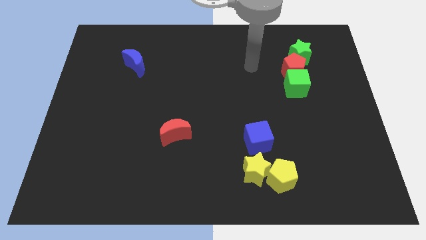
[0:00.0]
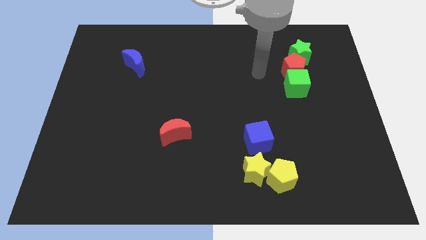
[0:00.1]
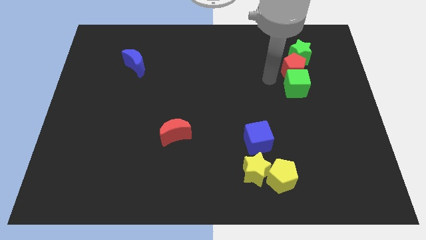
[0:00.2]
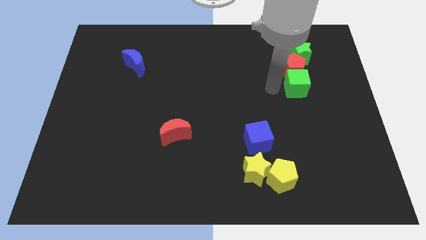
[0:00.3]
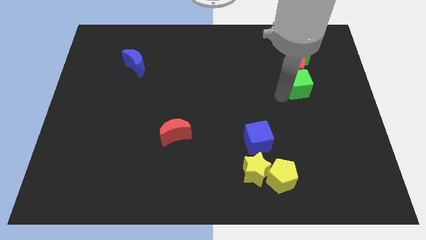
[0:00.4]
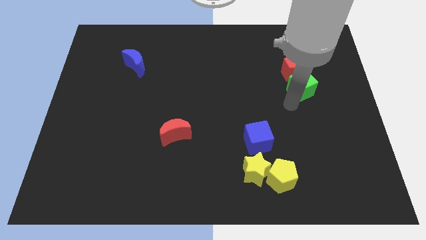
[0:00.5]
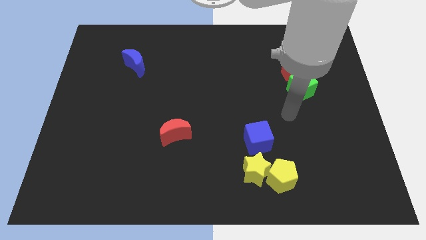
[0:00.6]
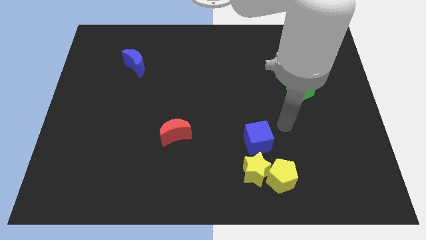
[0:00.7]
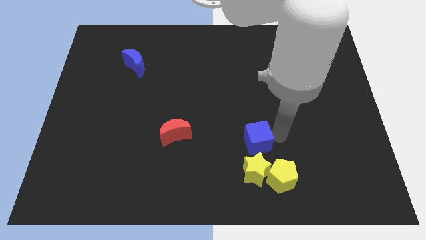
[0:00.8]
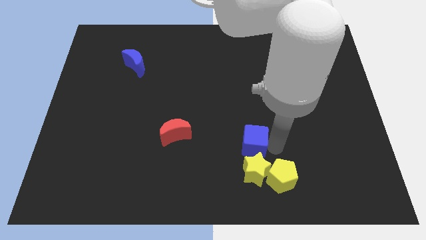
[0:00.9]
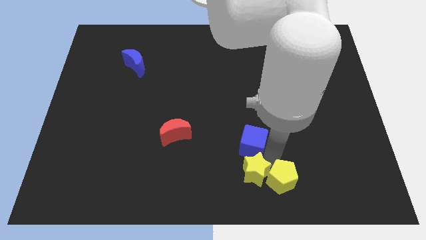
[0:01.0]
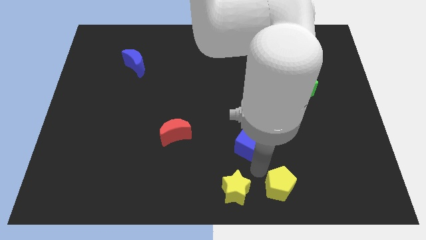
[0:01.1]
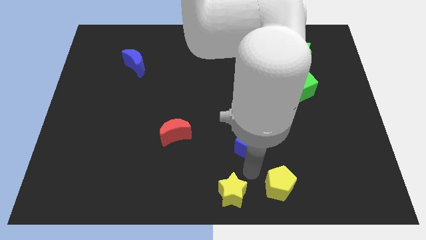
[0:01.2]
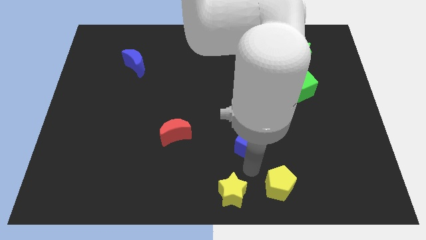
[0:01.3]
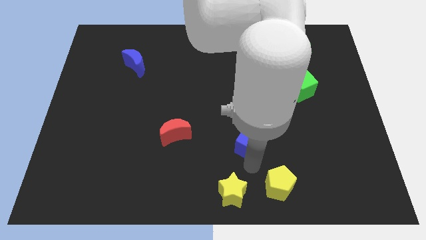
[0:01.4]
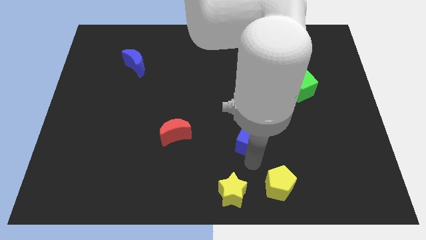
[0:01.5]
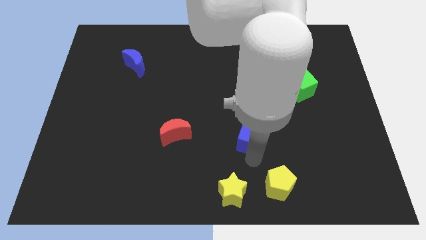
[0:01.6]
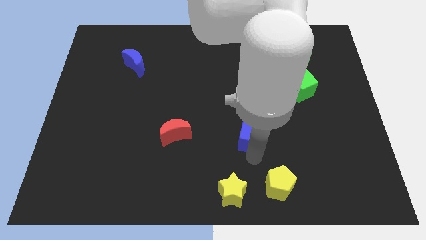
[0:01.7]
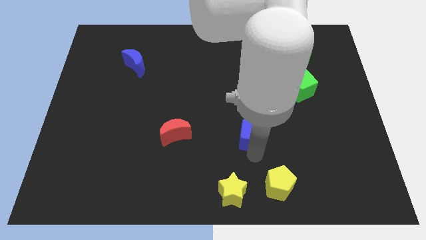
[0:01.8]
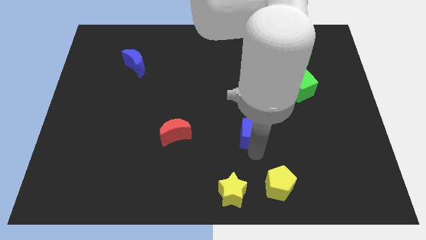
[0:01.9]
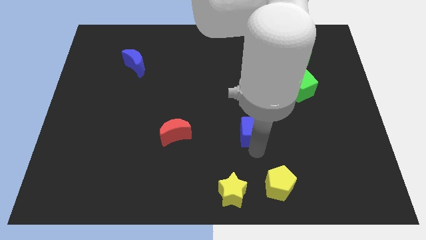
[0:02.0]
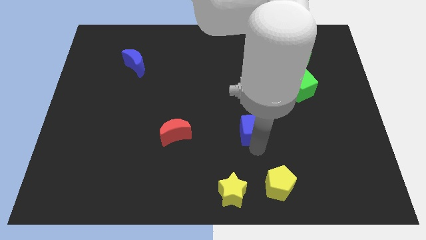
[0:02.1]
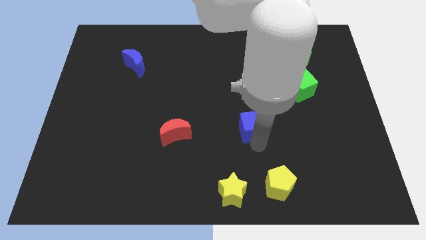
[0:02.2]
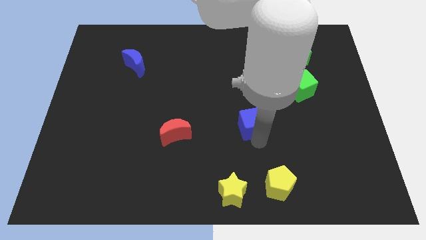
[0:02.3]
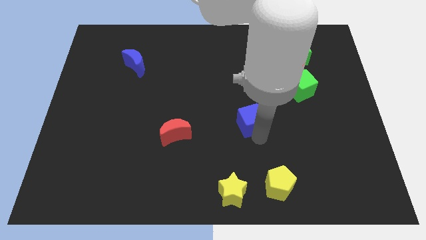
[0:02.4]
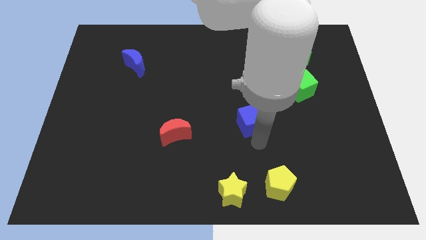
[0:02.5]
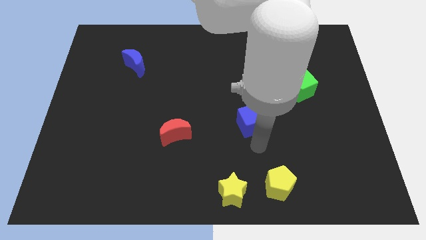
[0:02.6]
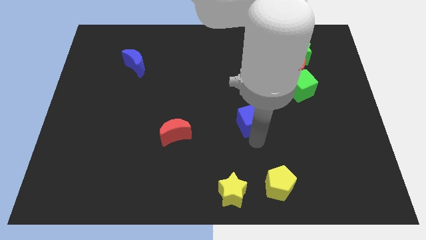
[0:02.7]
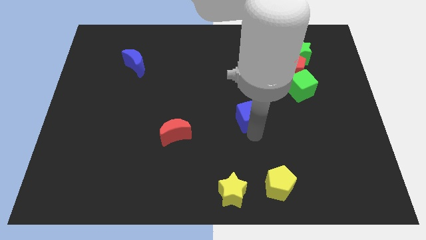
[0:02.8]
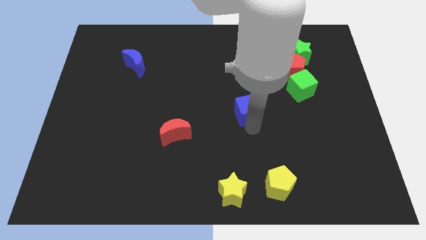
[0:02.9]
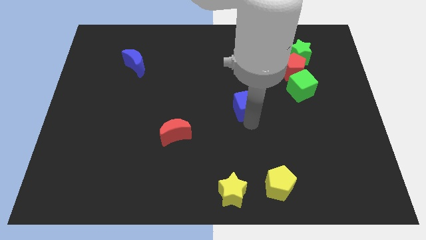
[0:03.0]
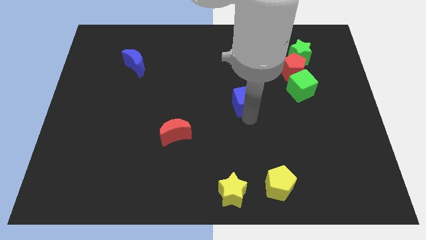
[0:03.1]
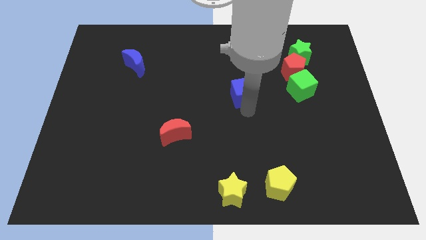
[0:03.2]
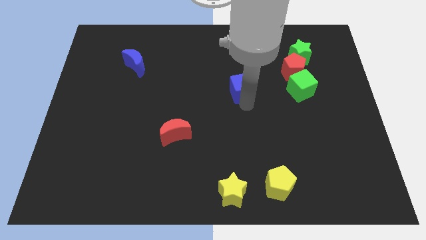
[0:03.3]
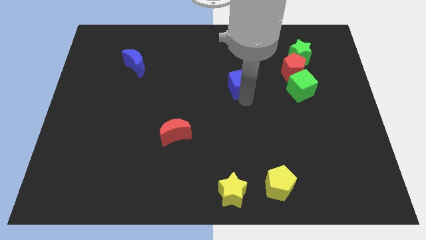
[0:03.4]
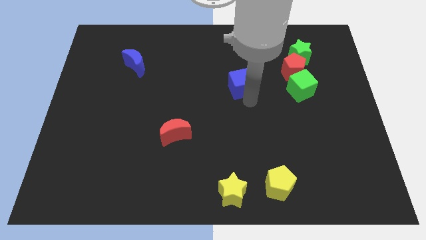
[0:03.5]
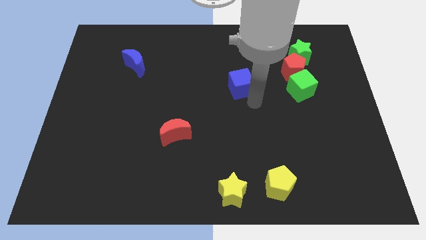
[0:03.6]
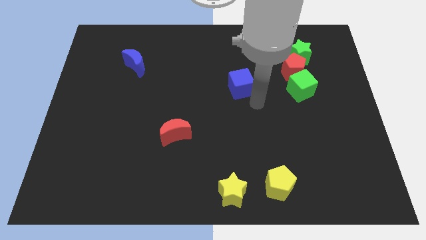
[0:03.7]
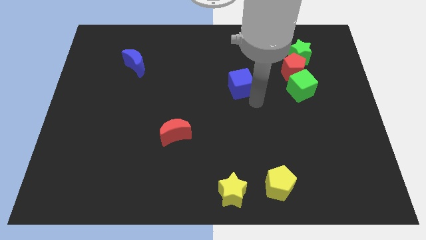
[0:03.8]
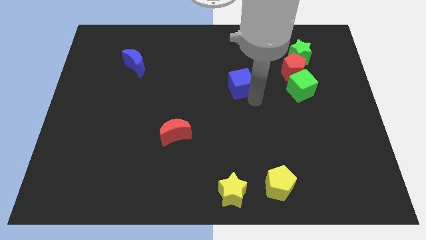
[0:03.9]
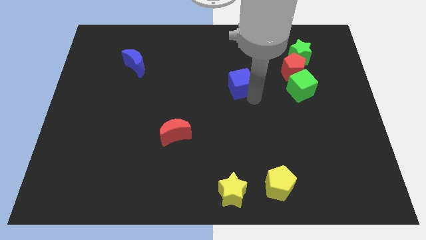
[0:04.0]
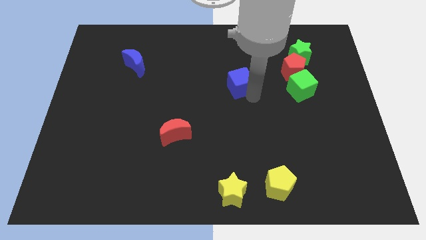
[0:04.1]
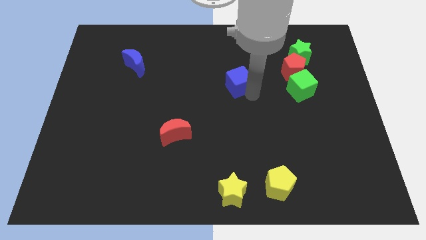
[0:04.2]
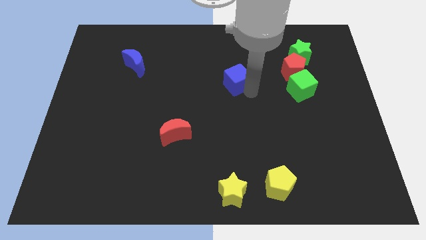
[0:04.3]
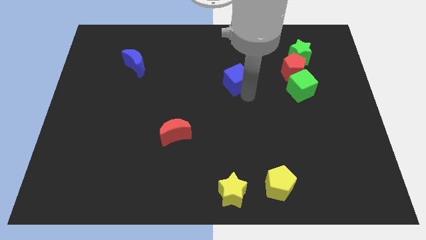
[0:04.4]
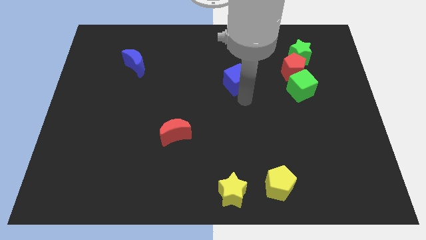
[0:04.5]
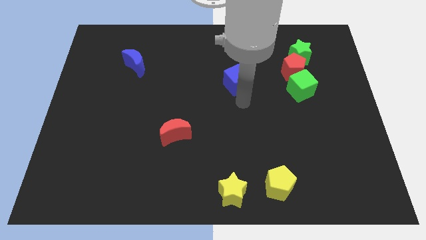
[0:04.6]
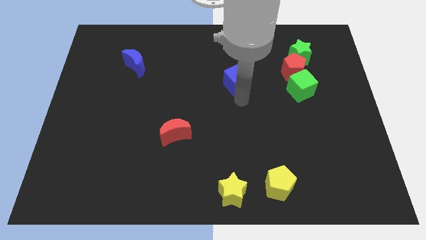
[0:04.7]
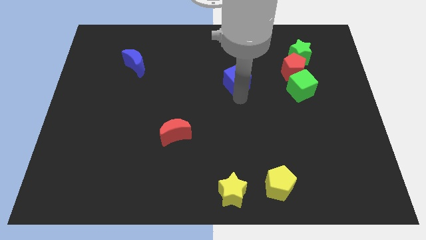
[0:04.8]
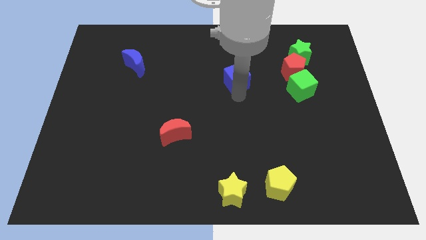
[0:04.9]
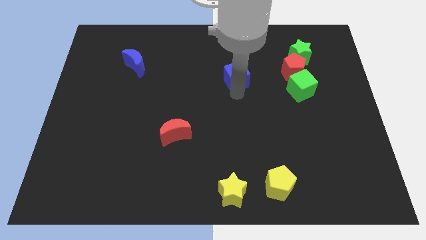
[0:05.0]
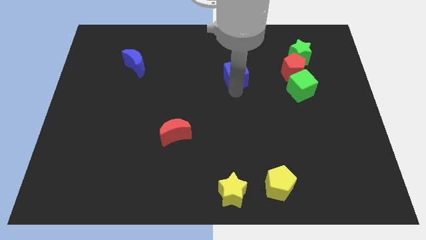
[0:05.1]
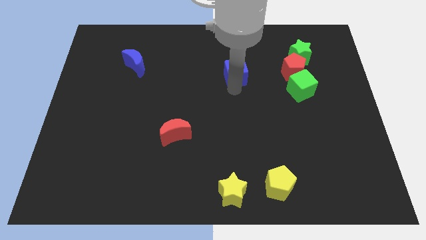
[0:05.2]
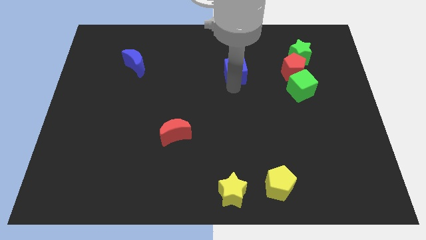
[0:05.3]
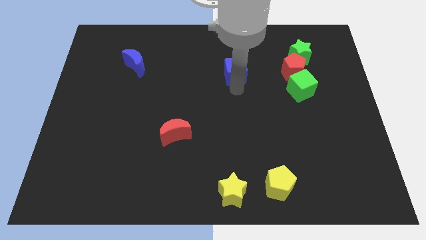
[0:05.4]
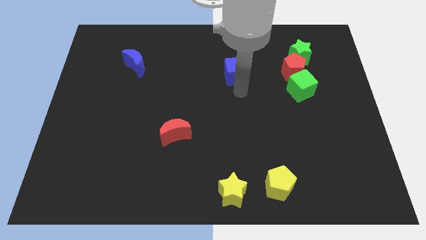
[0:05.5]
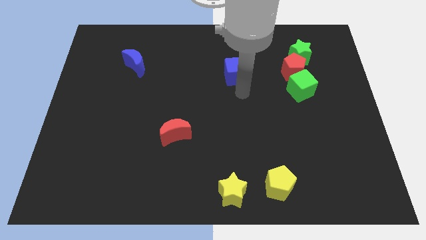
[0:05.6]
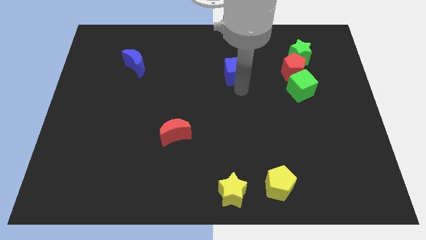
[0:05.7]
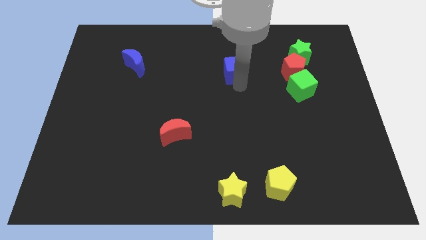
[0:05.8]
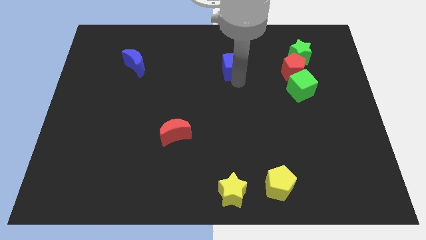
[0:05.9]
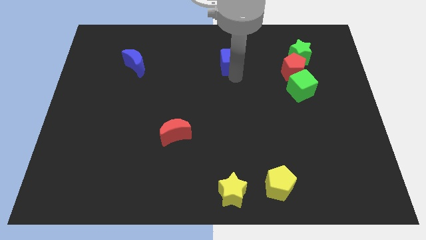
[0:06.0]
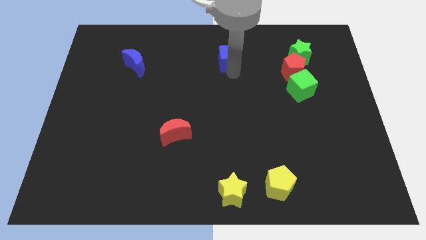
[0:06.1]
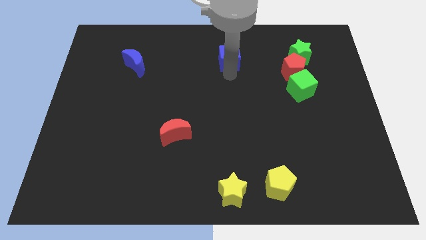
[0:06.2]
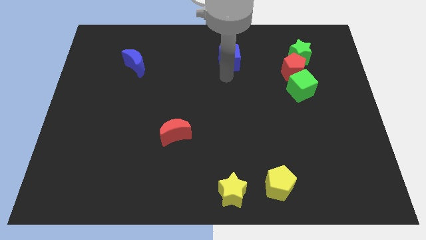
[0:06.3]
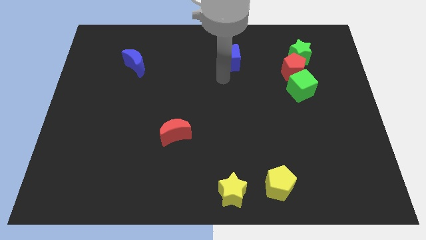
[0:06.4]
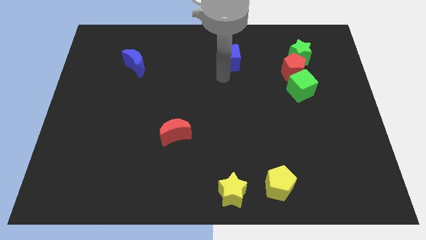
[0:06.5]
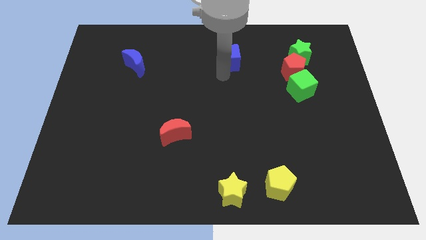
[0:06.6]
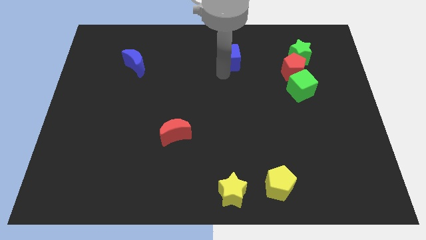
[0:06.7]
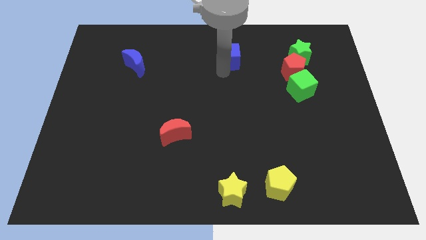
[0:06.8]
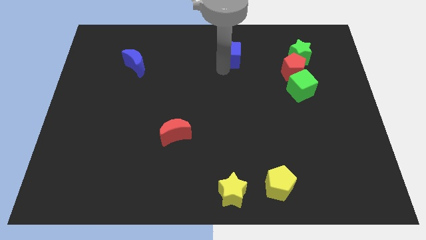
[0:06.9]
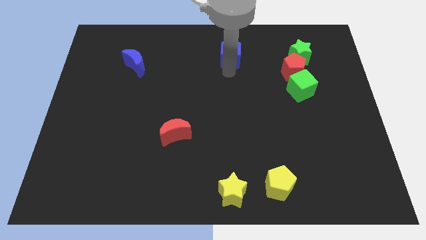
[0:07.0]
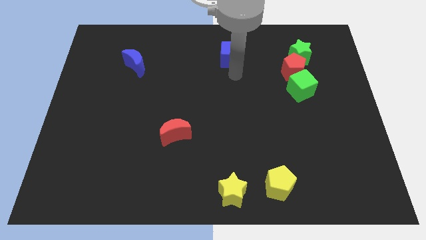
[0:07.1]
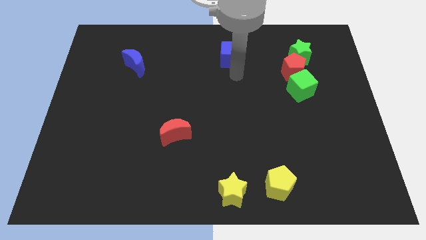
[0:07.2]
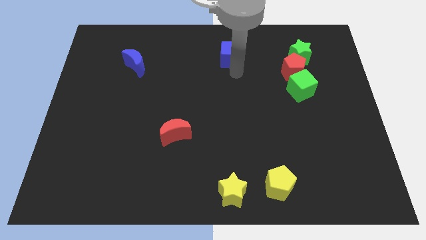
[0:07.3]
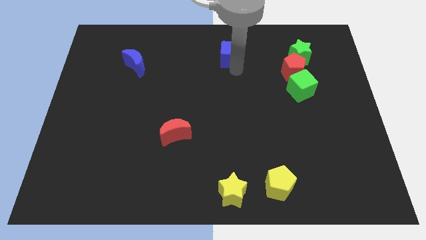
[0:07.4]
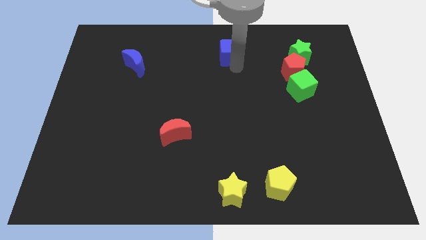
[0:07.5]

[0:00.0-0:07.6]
move the blue cube to the top side

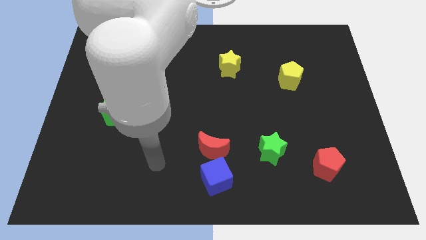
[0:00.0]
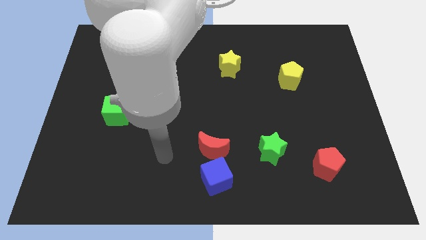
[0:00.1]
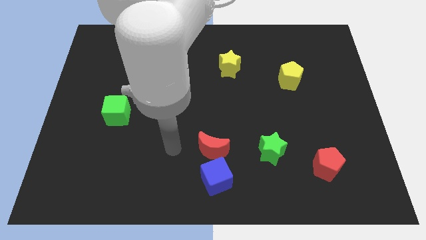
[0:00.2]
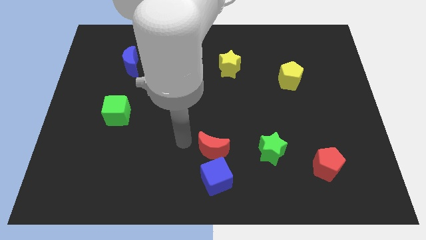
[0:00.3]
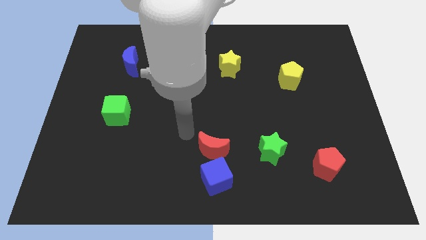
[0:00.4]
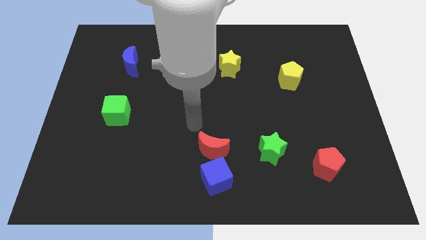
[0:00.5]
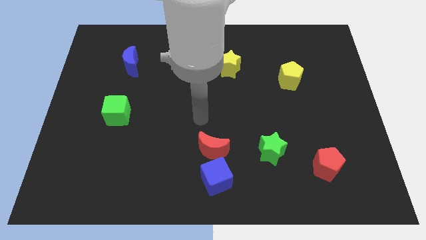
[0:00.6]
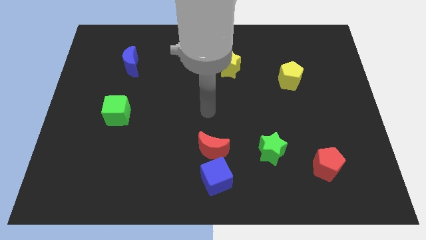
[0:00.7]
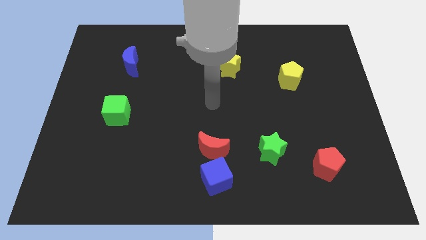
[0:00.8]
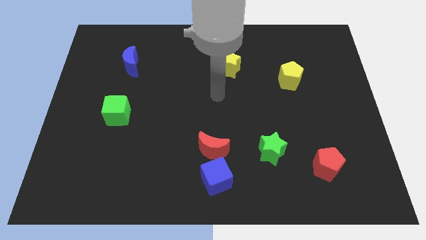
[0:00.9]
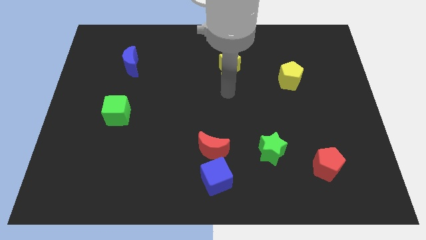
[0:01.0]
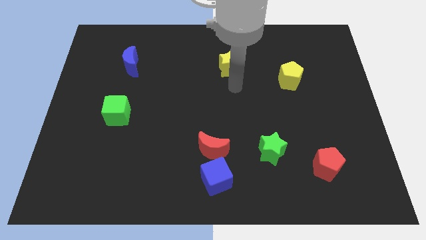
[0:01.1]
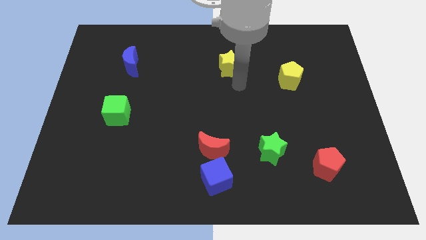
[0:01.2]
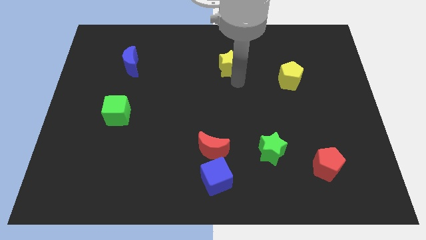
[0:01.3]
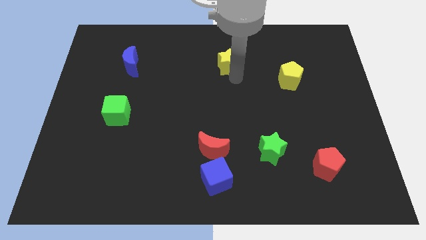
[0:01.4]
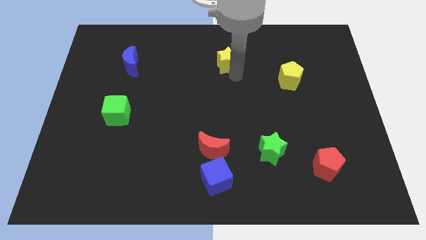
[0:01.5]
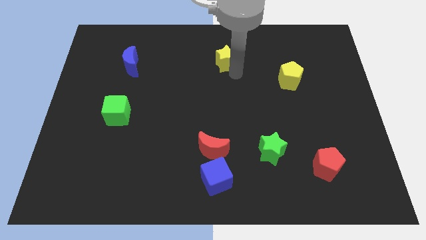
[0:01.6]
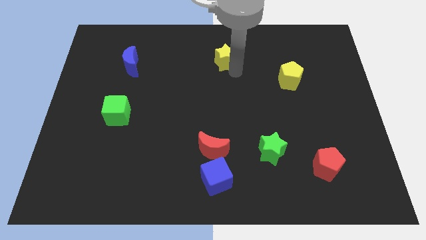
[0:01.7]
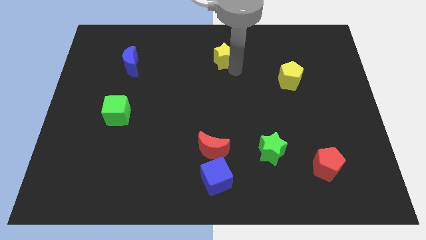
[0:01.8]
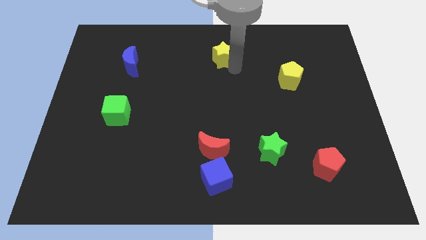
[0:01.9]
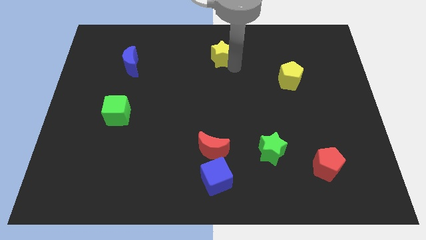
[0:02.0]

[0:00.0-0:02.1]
push the yellow star to the top side
